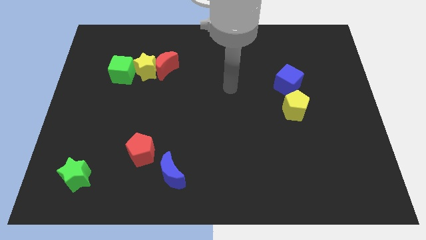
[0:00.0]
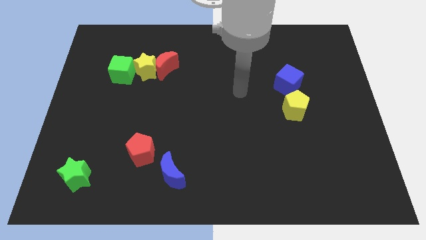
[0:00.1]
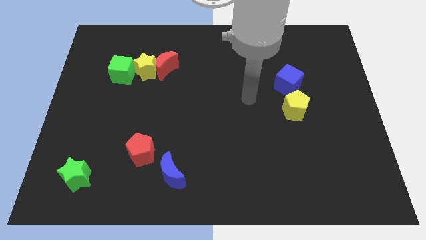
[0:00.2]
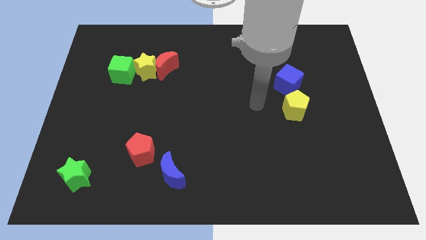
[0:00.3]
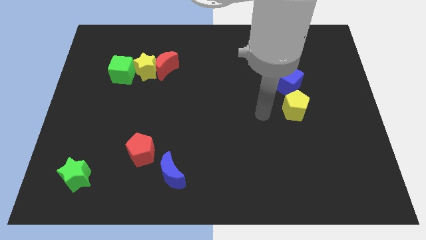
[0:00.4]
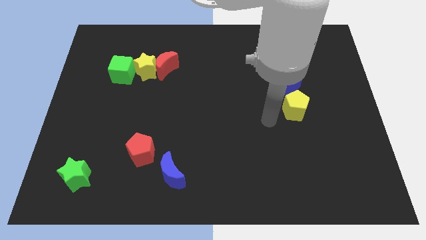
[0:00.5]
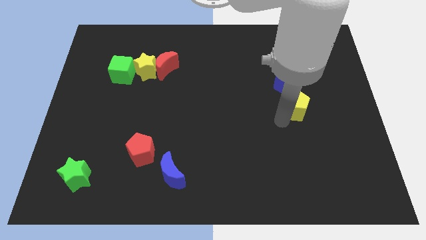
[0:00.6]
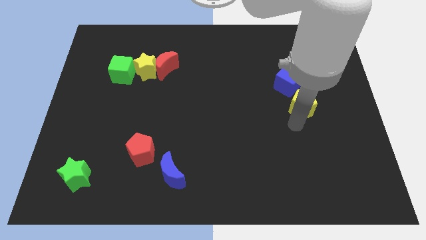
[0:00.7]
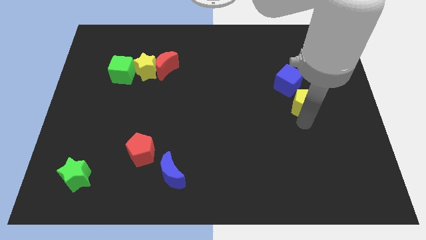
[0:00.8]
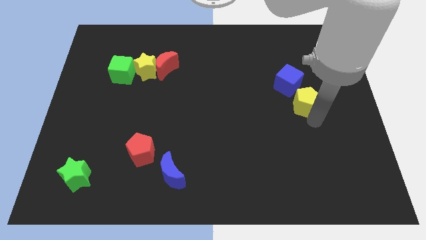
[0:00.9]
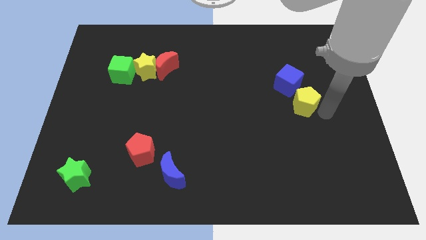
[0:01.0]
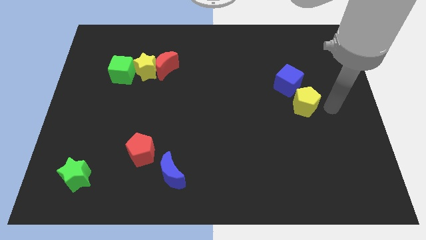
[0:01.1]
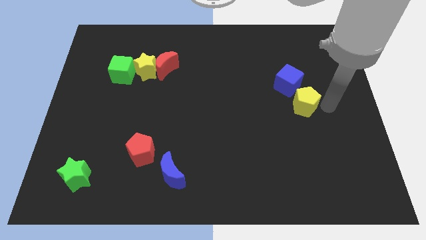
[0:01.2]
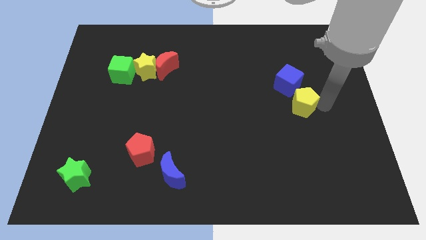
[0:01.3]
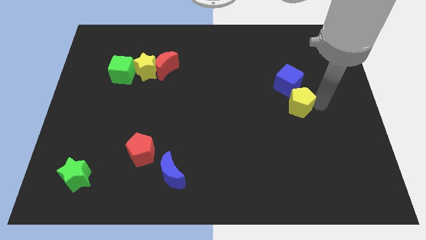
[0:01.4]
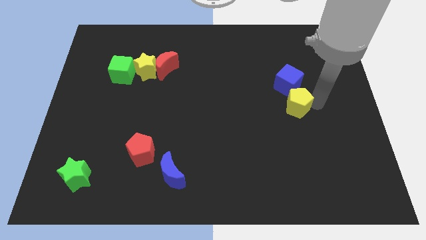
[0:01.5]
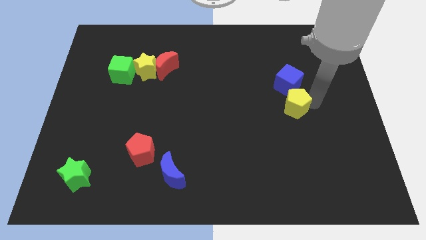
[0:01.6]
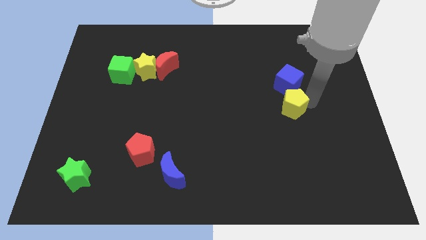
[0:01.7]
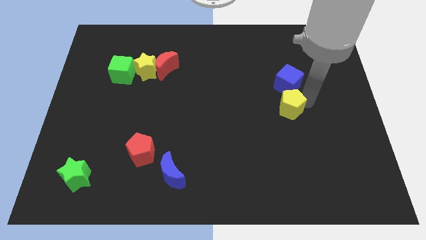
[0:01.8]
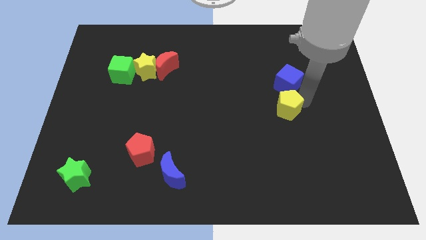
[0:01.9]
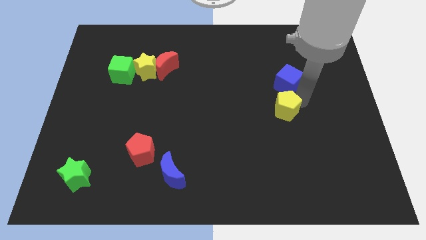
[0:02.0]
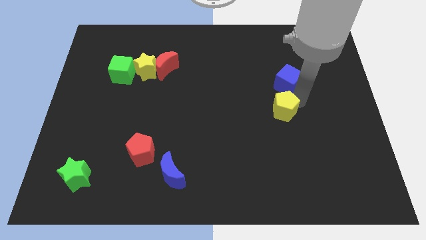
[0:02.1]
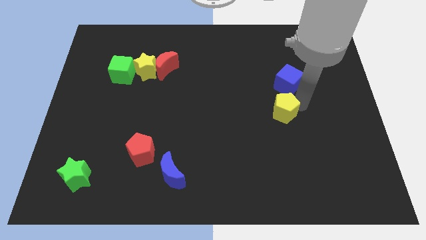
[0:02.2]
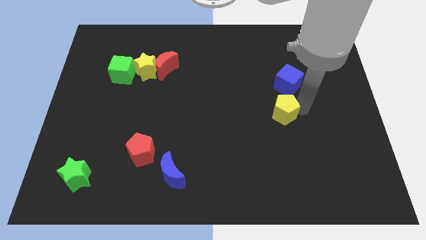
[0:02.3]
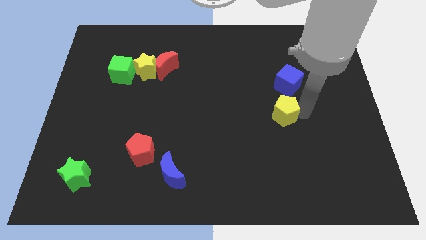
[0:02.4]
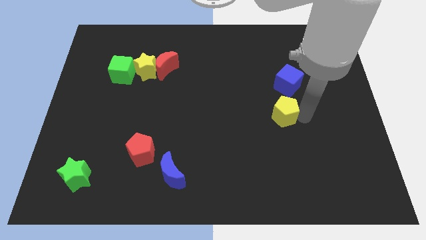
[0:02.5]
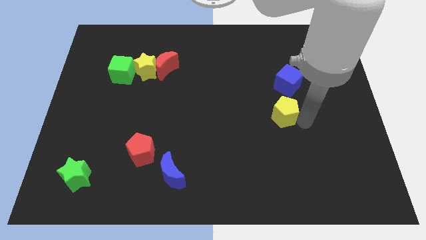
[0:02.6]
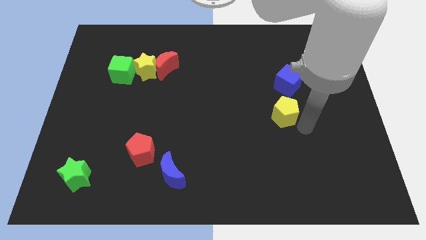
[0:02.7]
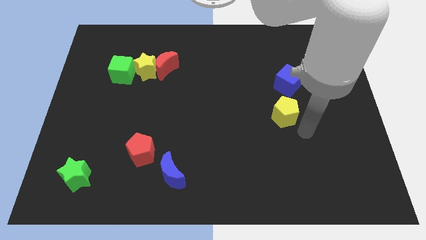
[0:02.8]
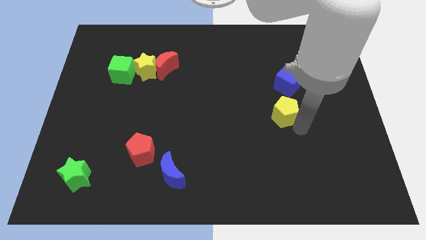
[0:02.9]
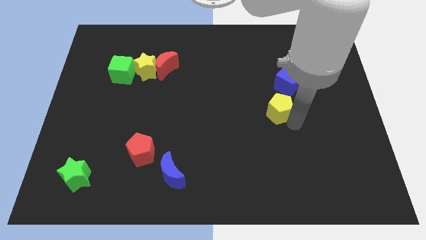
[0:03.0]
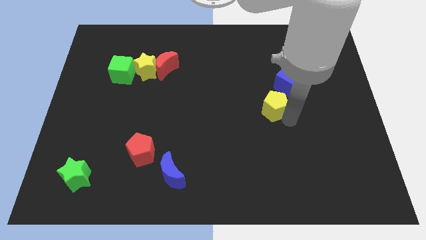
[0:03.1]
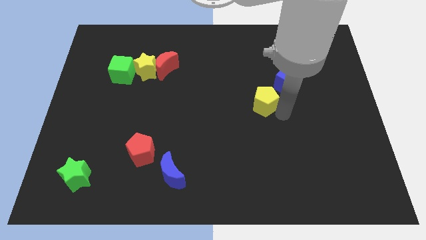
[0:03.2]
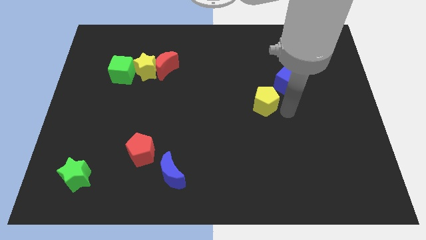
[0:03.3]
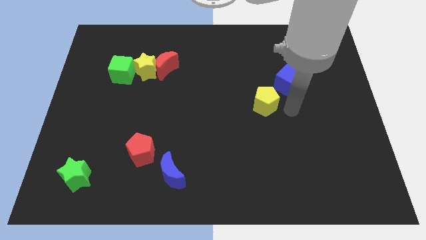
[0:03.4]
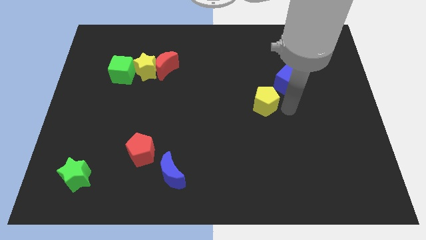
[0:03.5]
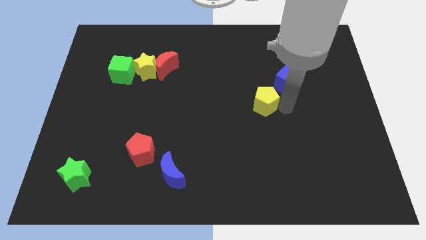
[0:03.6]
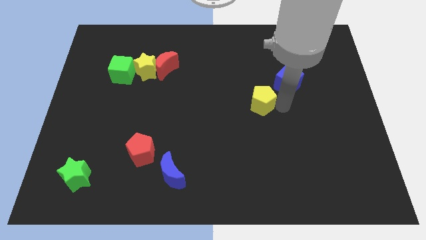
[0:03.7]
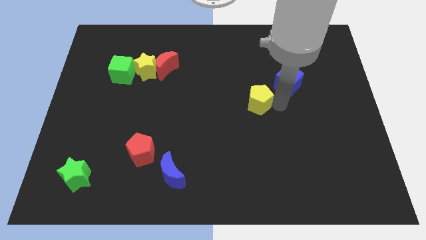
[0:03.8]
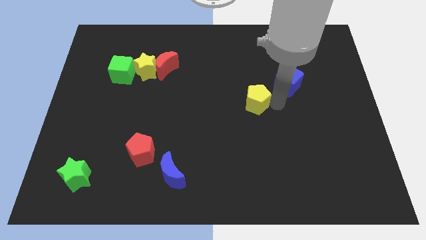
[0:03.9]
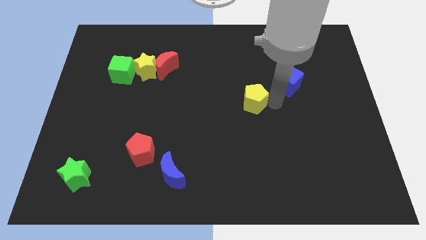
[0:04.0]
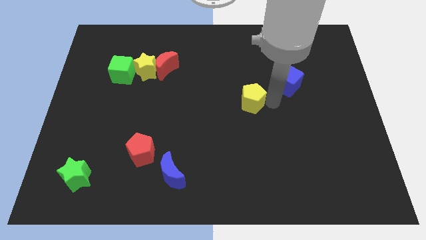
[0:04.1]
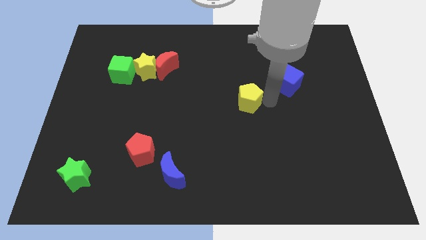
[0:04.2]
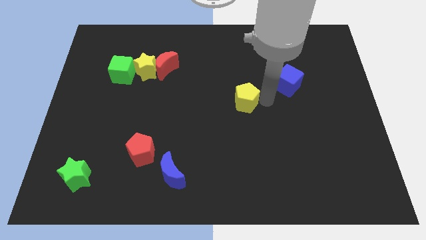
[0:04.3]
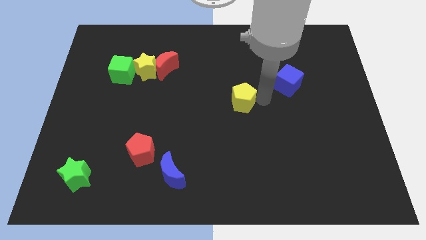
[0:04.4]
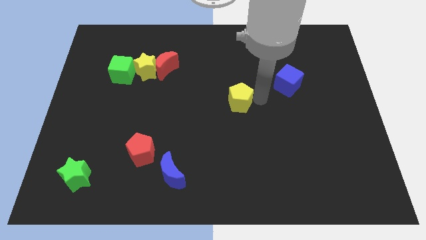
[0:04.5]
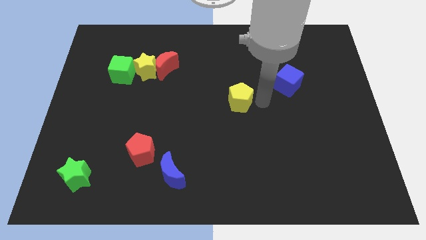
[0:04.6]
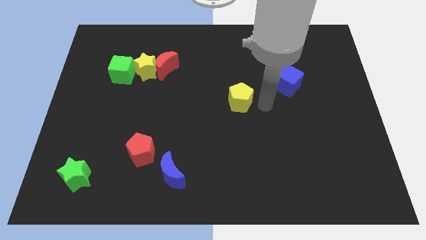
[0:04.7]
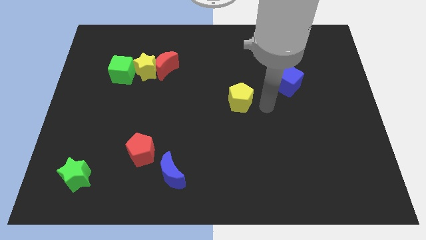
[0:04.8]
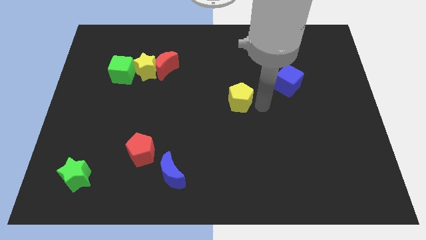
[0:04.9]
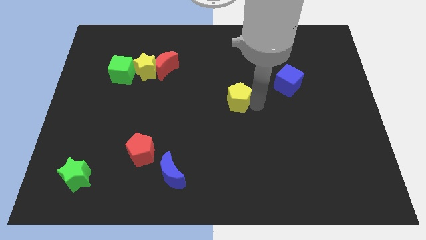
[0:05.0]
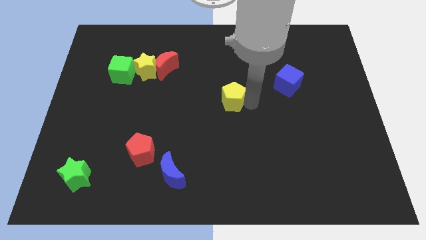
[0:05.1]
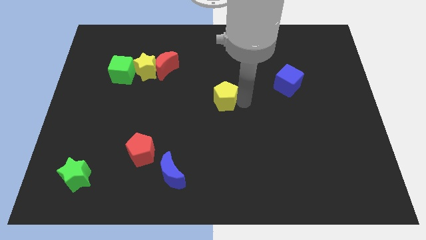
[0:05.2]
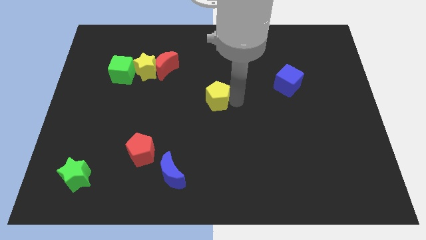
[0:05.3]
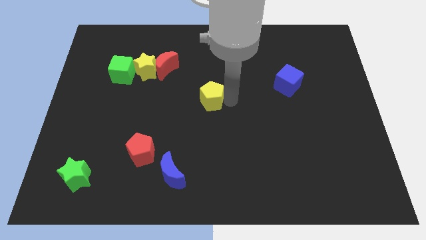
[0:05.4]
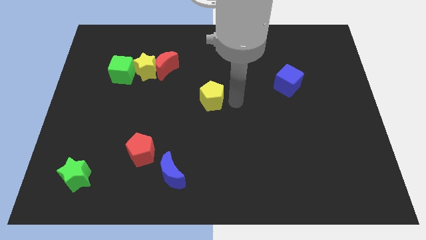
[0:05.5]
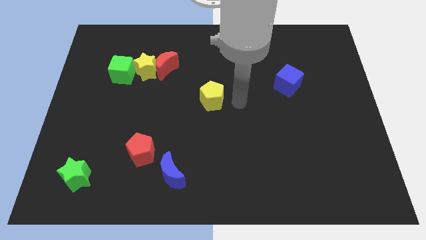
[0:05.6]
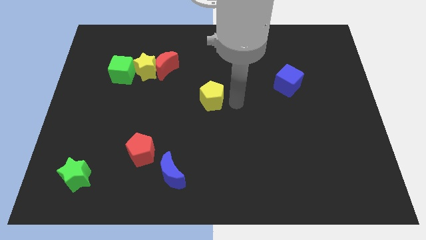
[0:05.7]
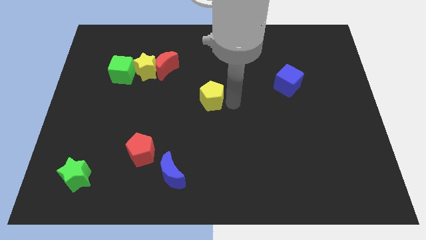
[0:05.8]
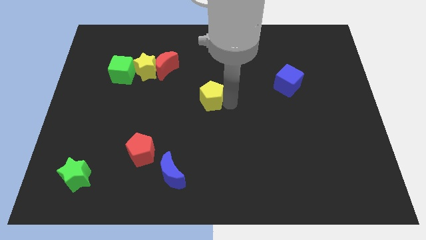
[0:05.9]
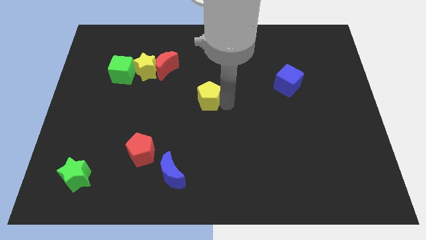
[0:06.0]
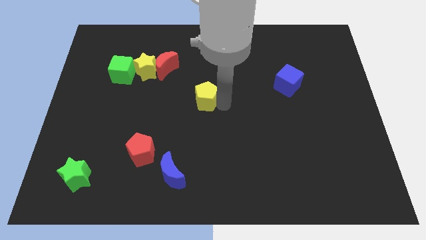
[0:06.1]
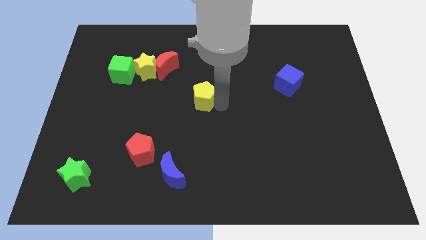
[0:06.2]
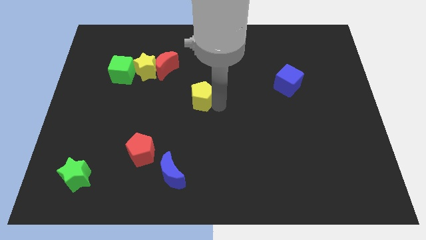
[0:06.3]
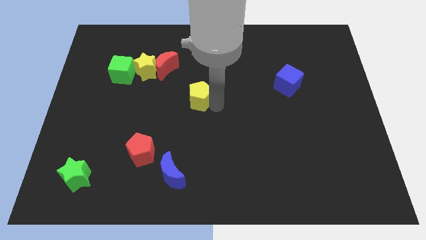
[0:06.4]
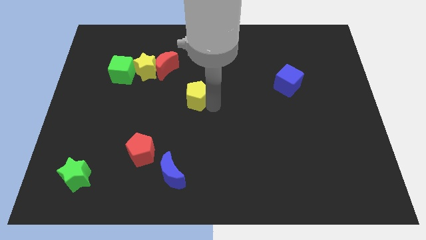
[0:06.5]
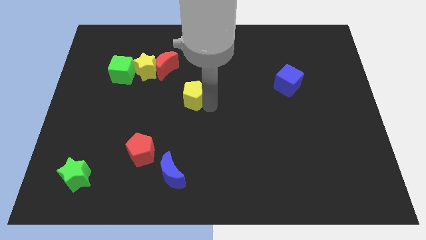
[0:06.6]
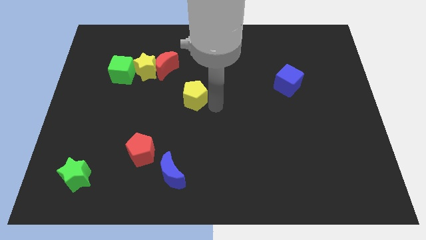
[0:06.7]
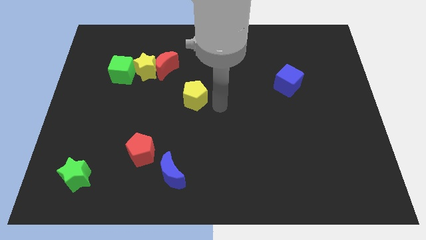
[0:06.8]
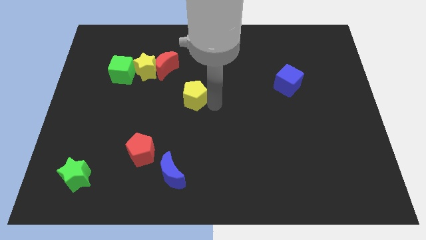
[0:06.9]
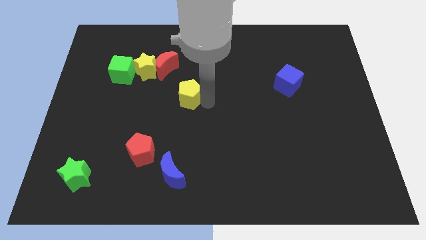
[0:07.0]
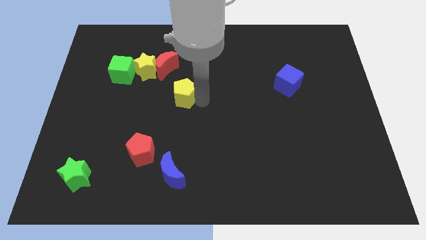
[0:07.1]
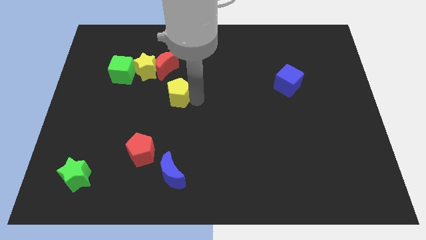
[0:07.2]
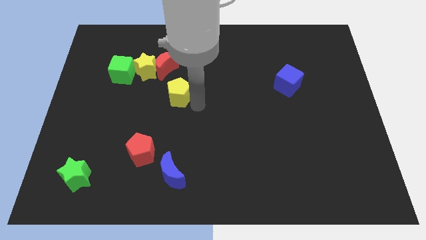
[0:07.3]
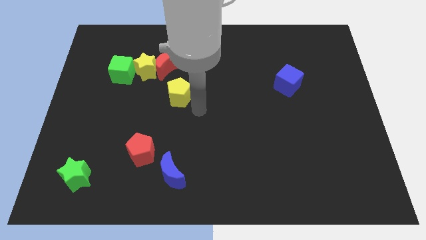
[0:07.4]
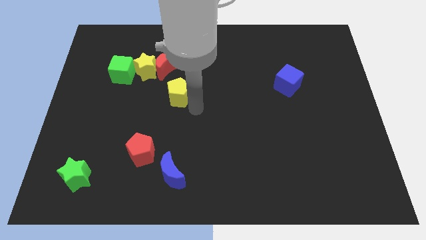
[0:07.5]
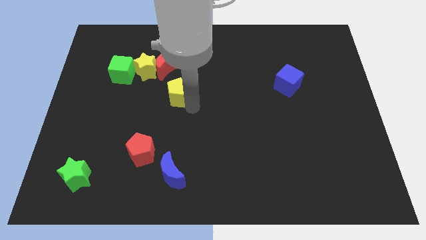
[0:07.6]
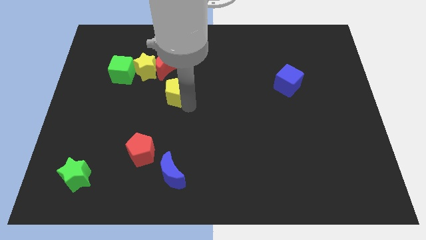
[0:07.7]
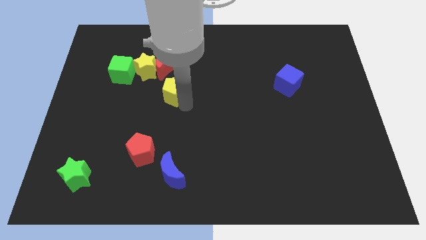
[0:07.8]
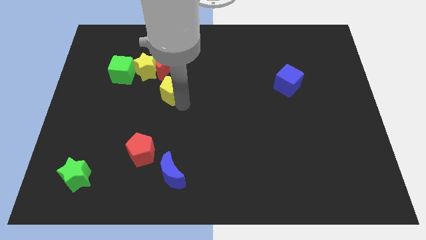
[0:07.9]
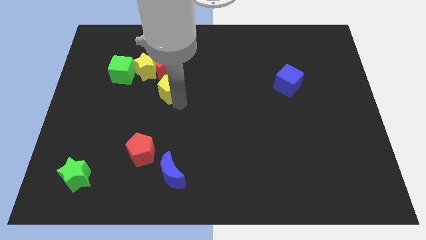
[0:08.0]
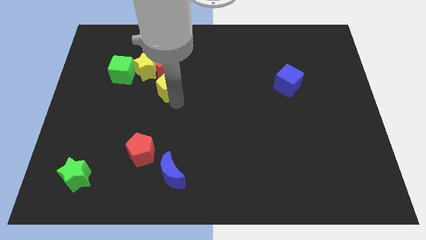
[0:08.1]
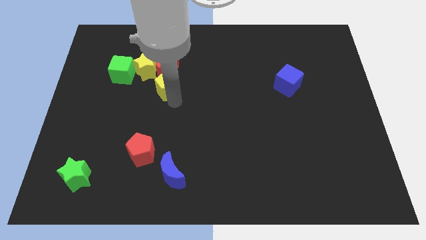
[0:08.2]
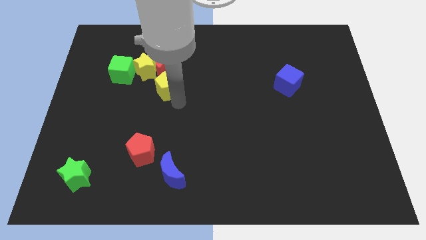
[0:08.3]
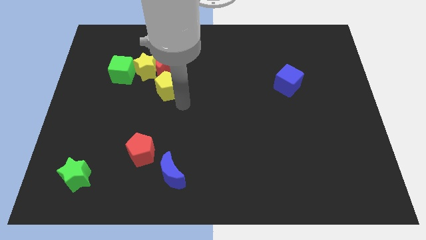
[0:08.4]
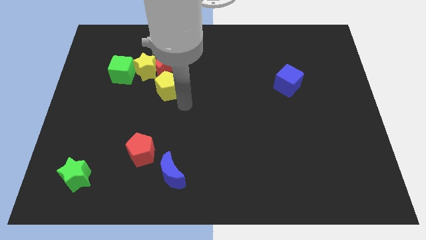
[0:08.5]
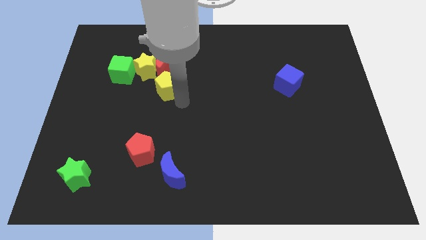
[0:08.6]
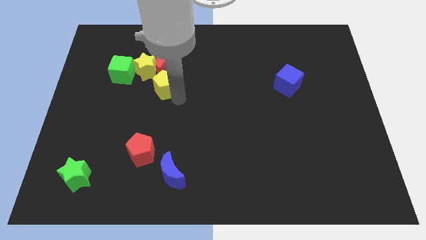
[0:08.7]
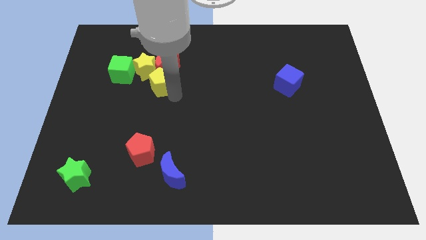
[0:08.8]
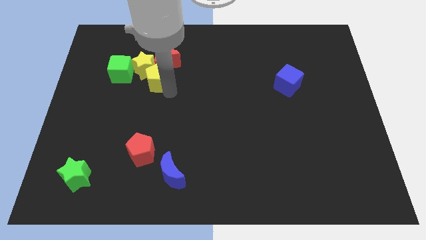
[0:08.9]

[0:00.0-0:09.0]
slide the yellow pentagon to the yellow star
